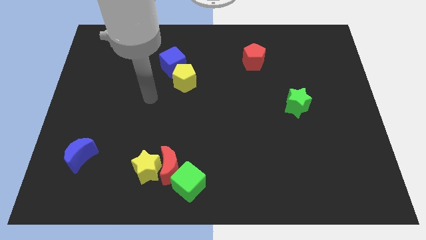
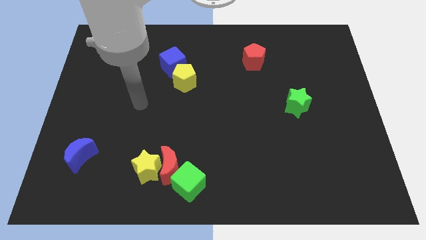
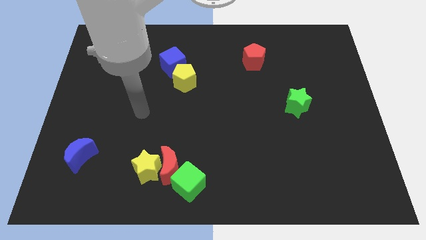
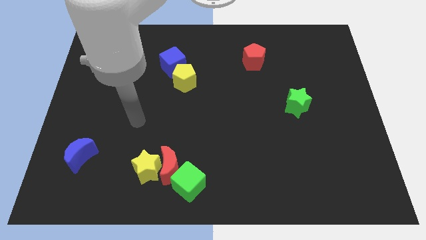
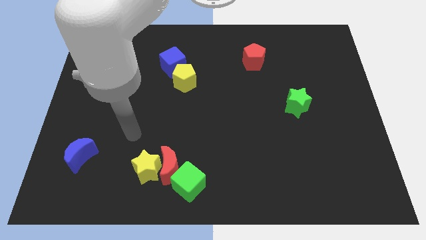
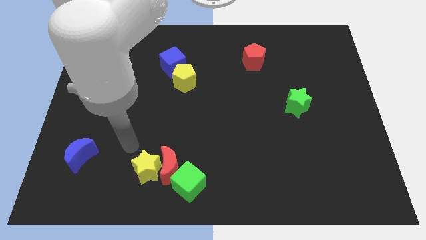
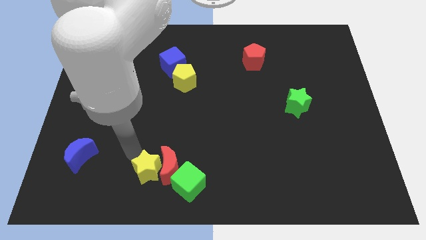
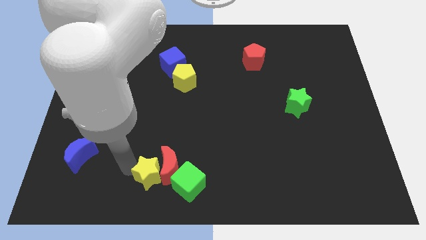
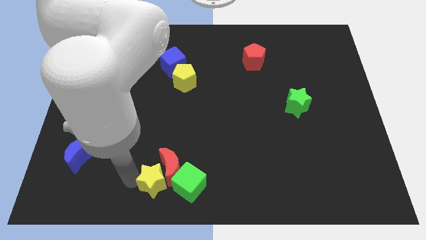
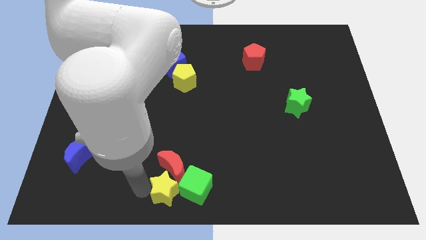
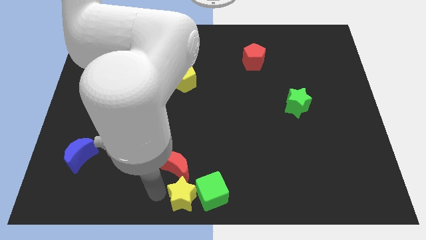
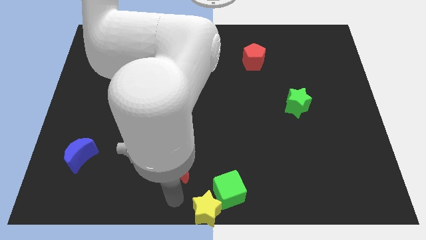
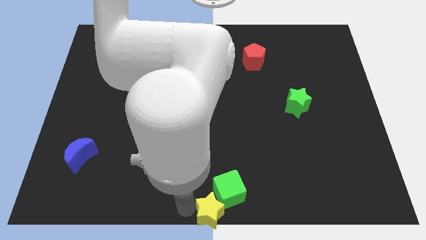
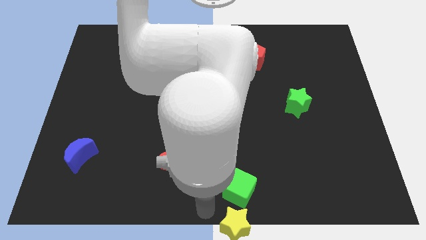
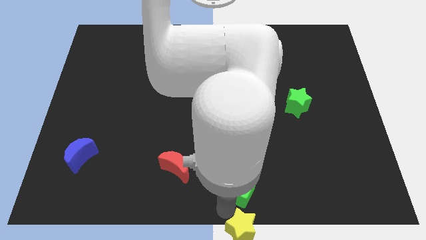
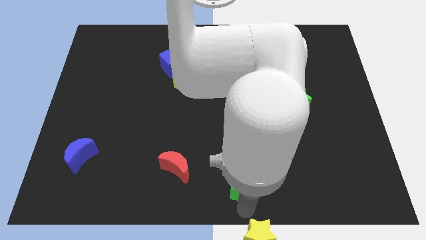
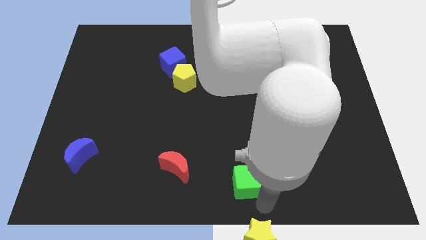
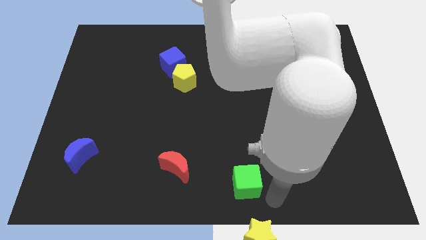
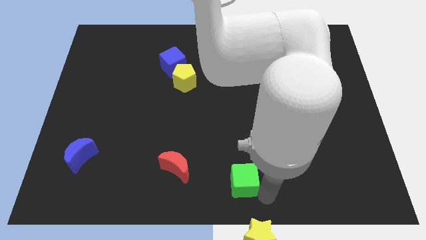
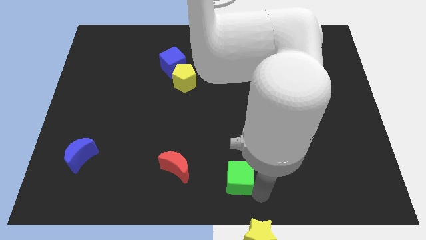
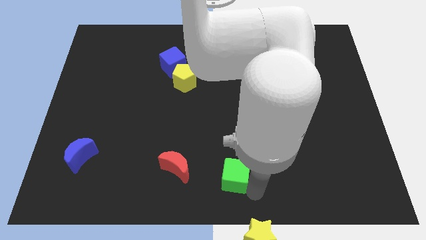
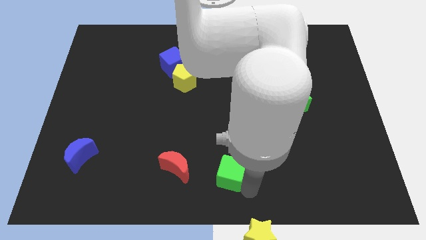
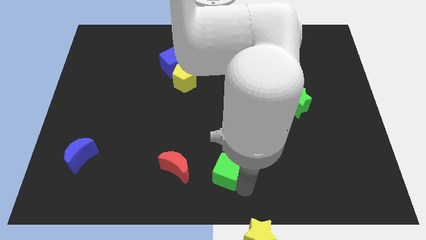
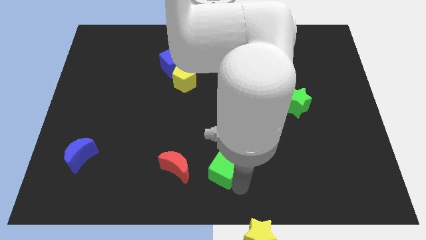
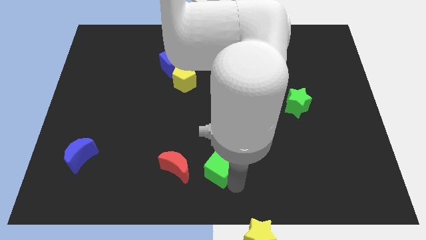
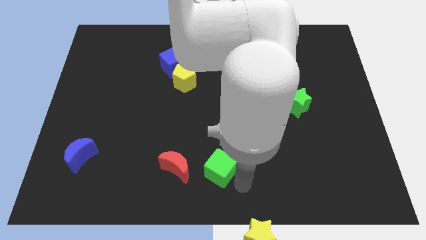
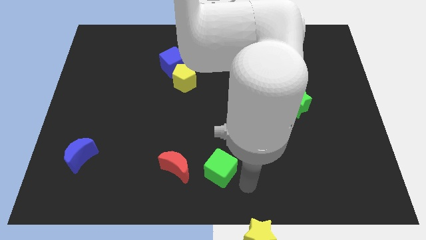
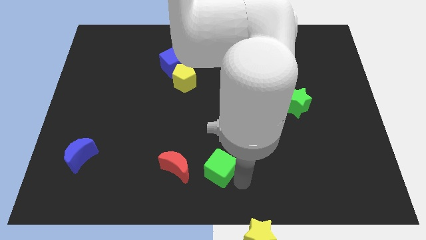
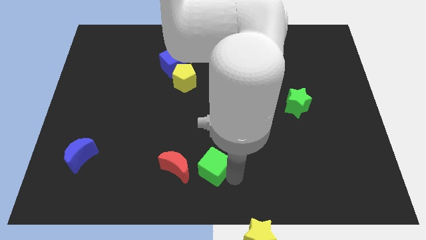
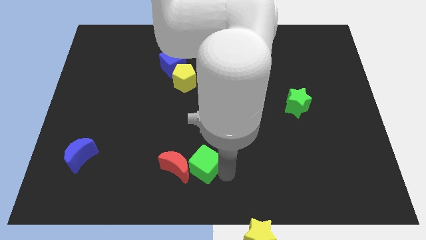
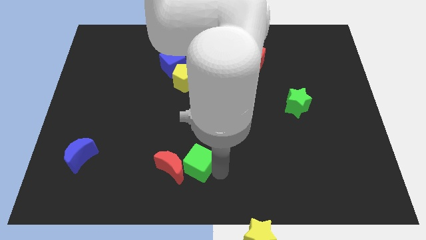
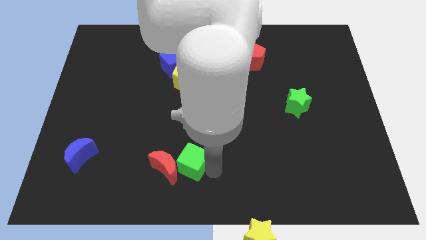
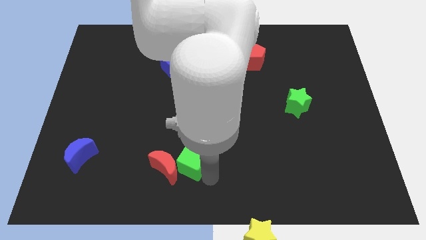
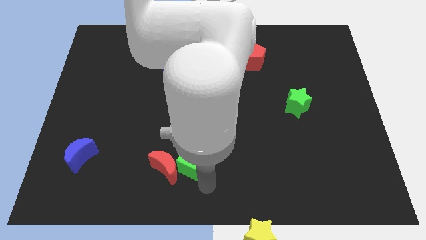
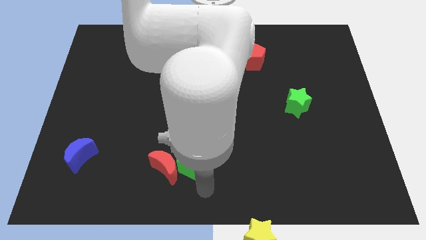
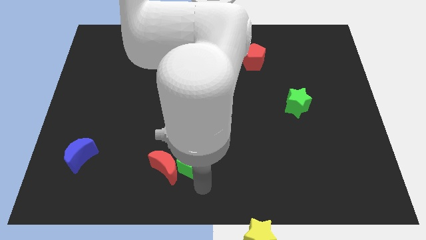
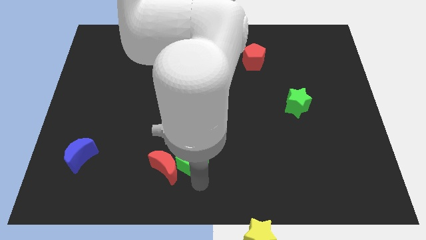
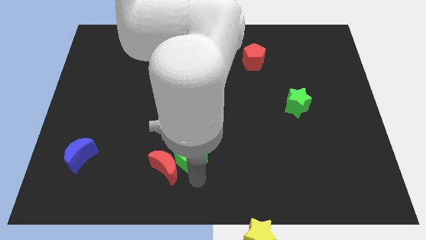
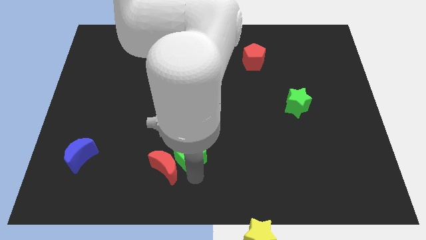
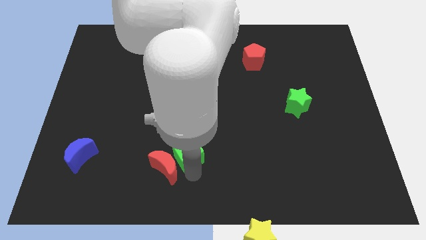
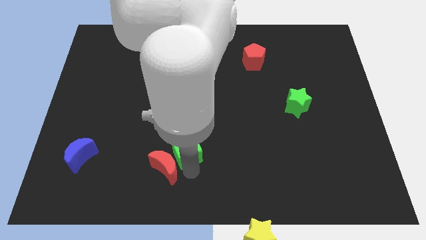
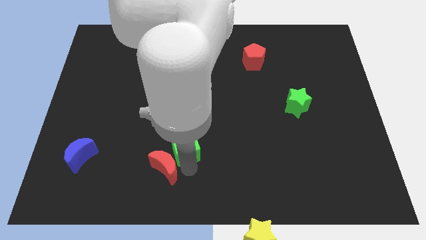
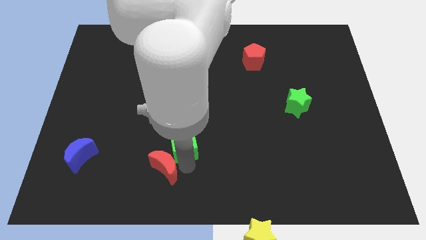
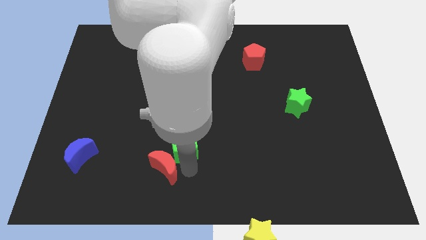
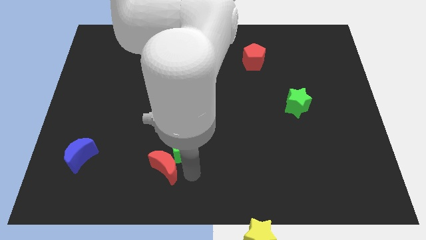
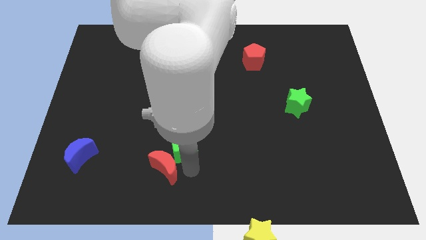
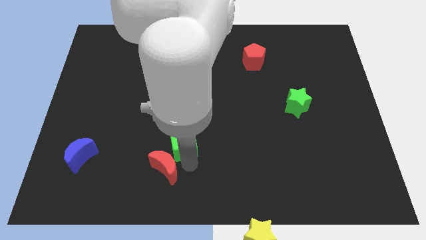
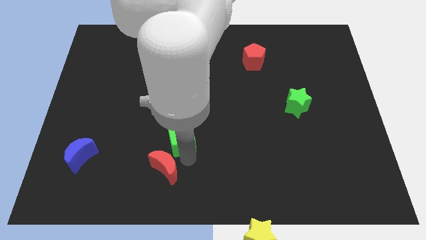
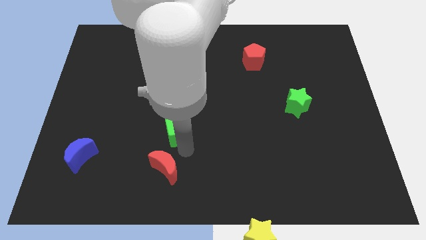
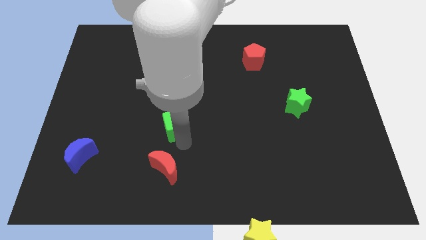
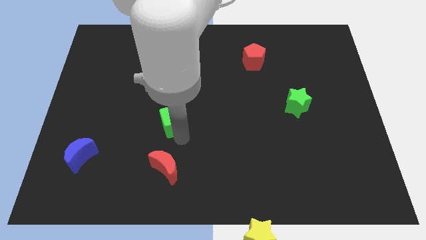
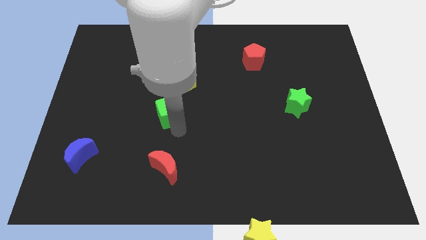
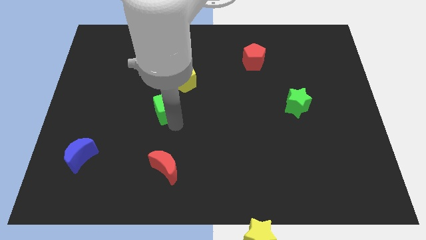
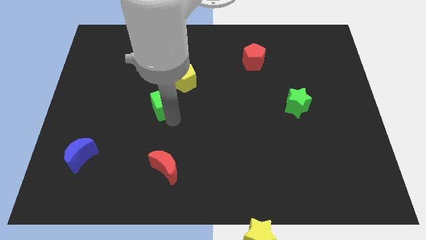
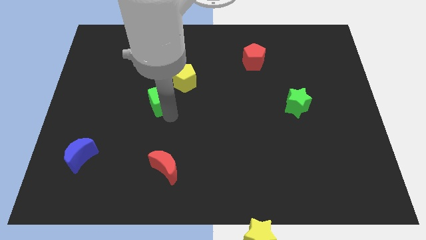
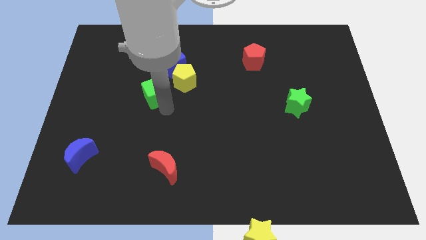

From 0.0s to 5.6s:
slide the green cube to the bottom left side of the blue cube

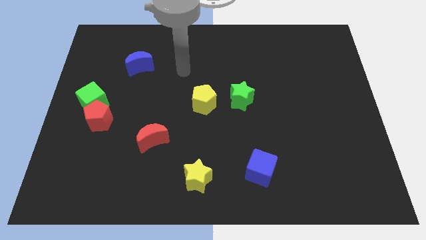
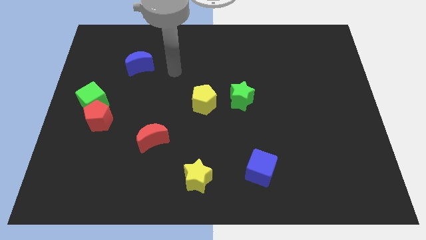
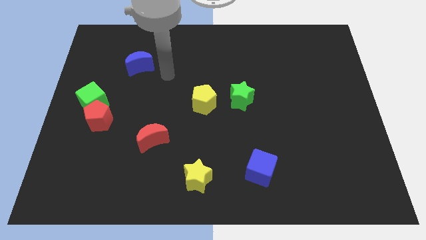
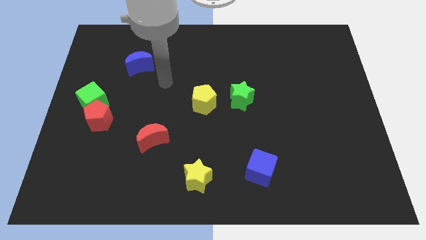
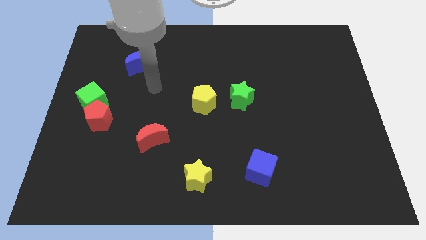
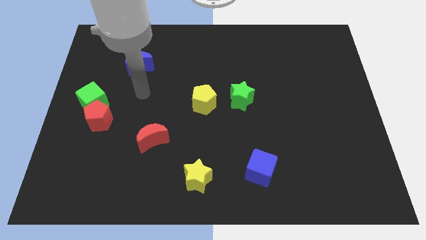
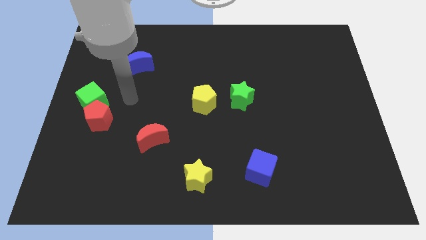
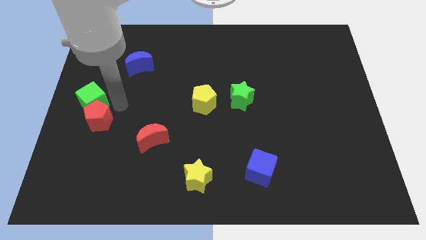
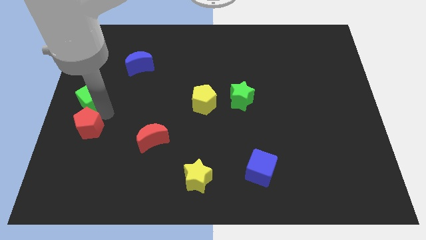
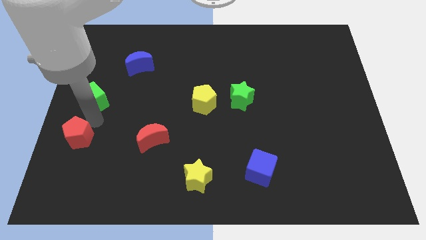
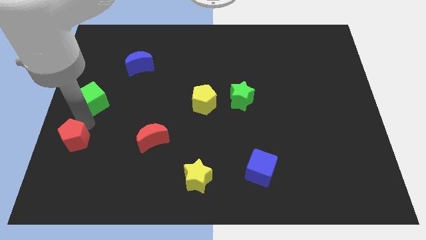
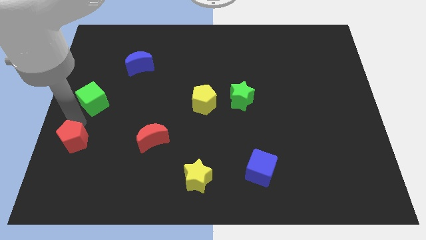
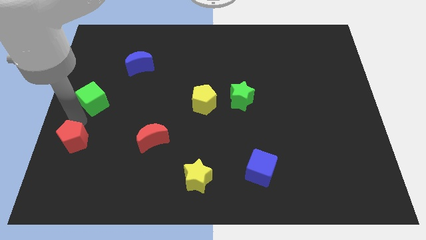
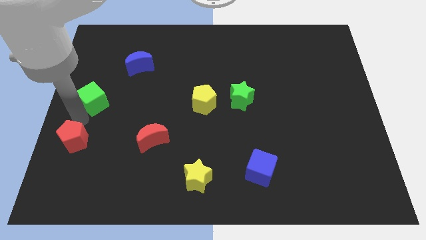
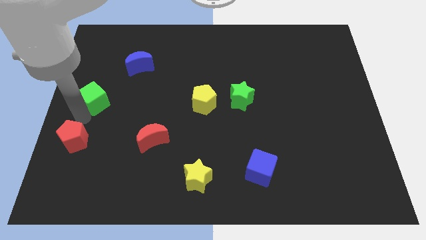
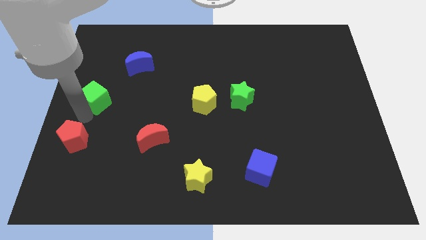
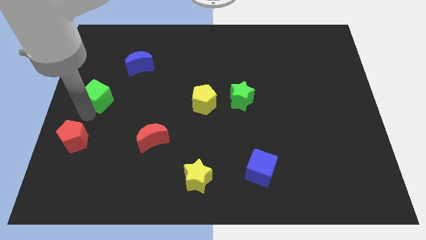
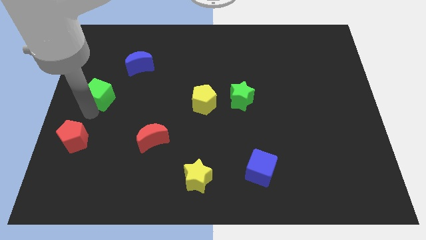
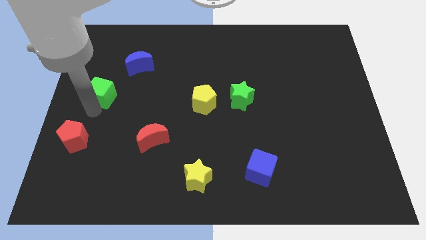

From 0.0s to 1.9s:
push the green cube to the bottom left of the blue moon
